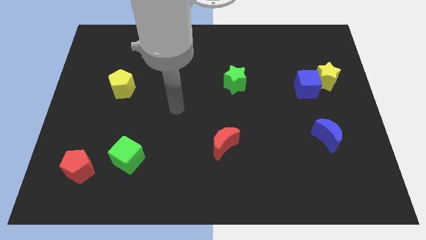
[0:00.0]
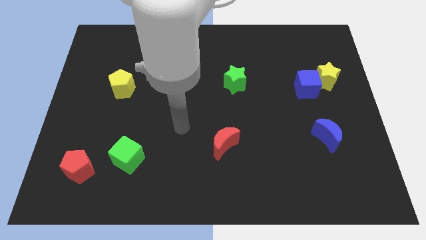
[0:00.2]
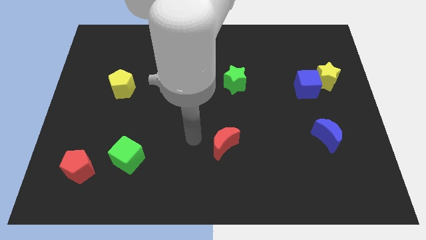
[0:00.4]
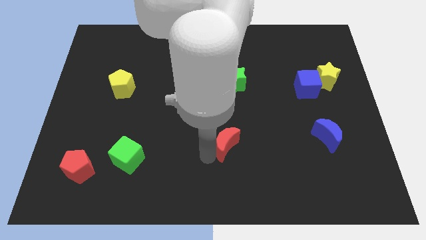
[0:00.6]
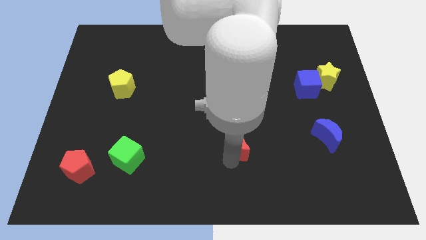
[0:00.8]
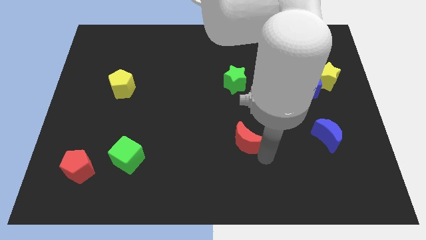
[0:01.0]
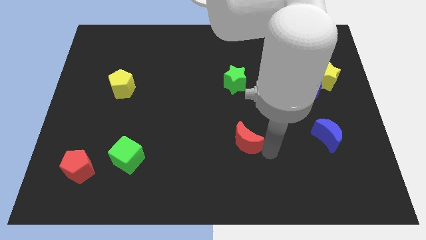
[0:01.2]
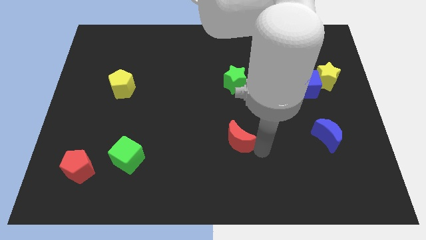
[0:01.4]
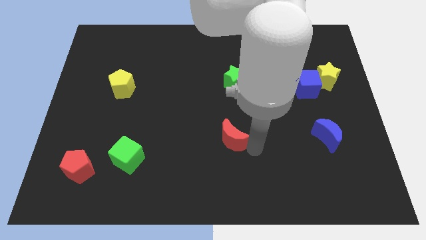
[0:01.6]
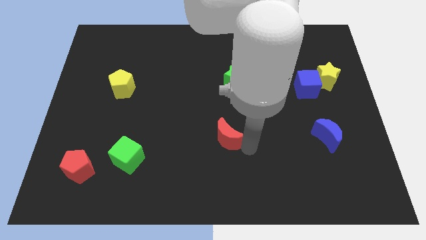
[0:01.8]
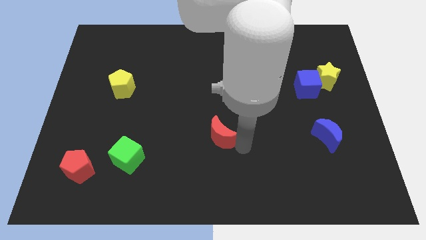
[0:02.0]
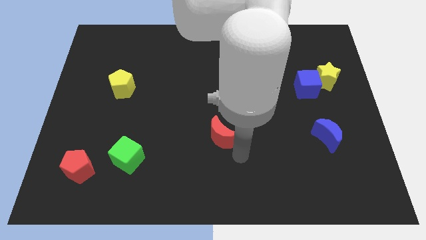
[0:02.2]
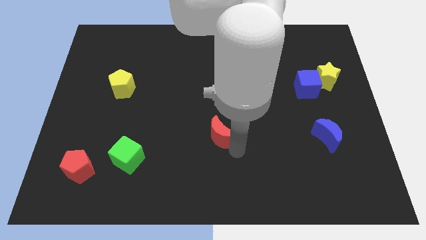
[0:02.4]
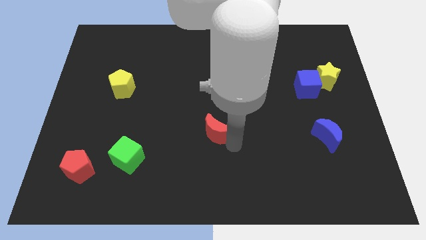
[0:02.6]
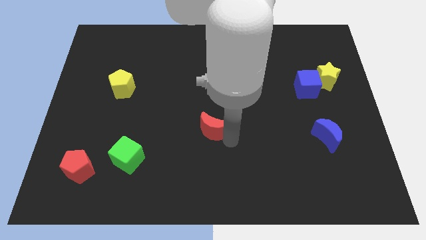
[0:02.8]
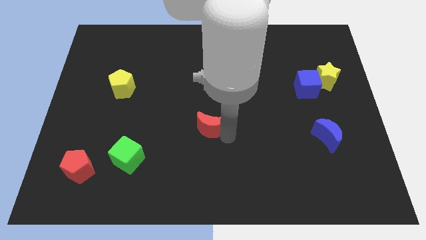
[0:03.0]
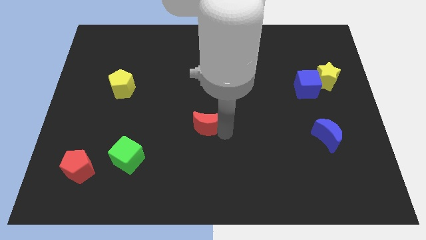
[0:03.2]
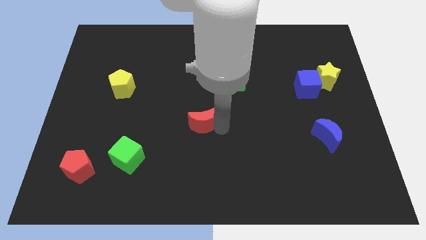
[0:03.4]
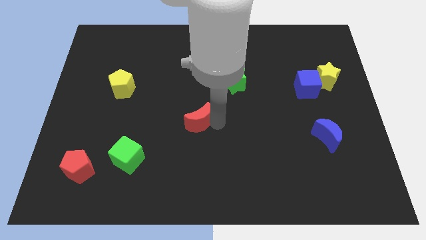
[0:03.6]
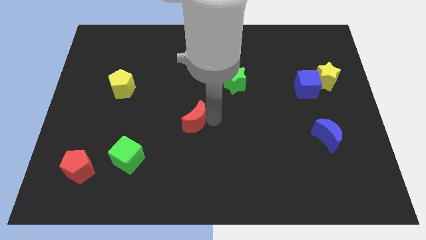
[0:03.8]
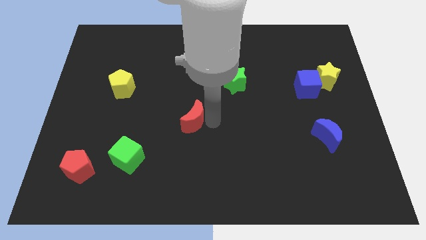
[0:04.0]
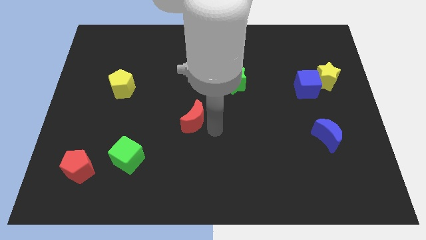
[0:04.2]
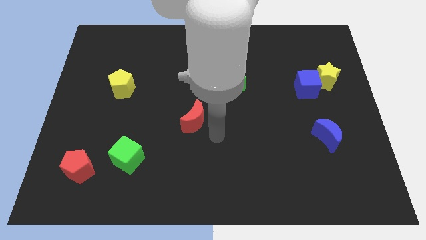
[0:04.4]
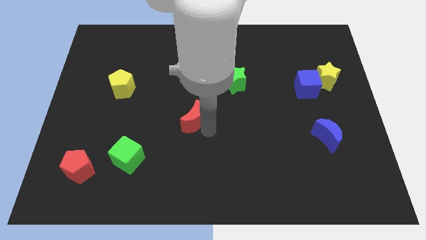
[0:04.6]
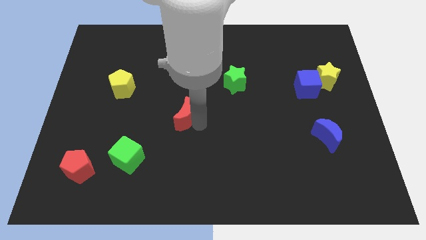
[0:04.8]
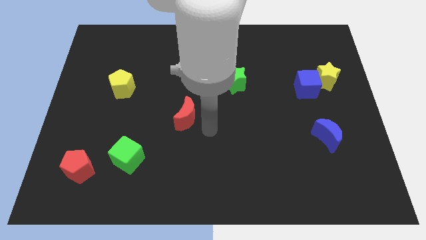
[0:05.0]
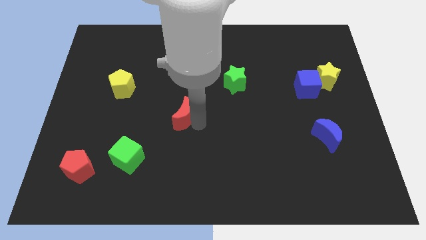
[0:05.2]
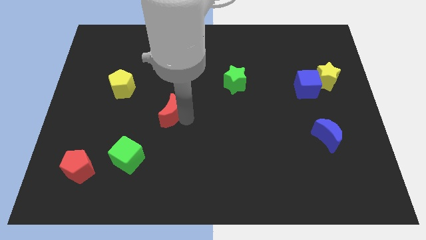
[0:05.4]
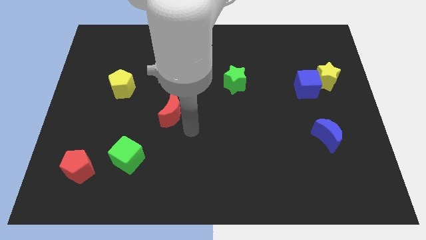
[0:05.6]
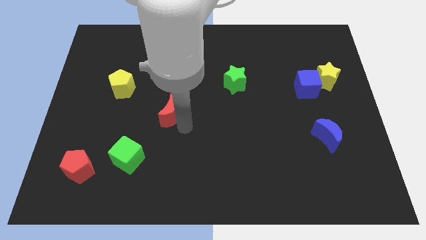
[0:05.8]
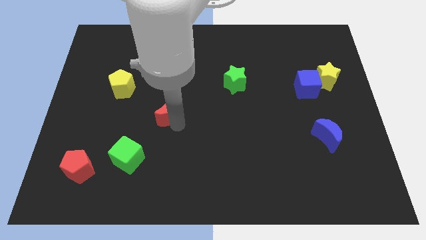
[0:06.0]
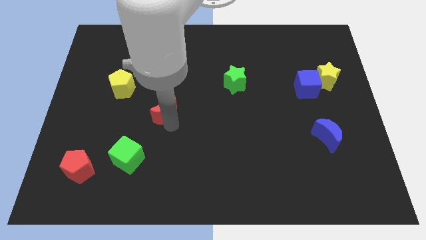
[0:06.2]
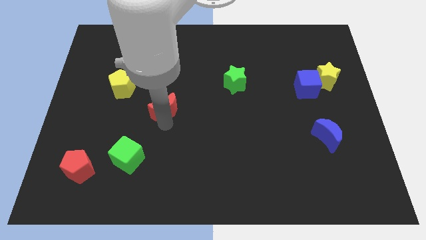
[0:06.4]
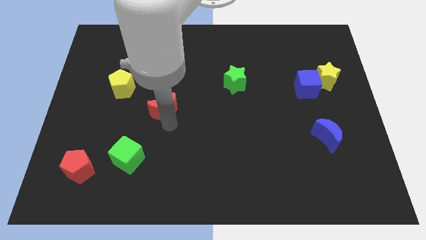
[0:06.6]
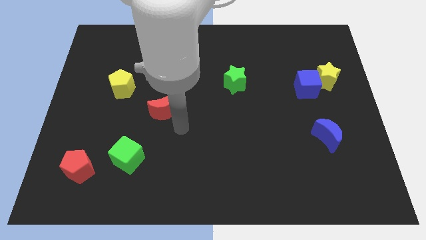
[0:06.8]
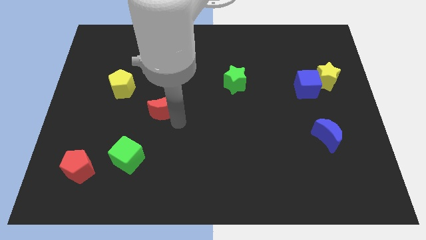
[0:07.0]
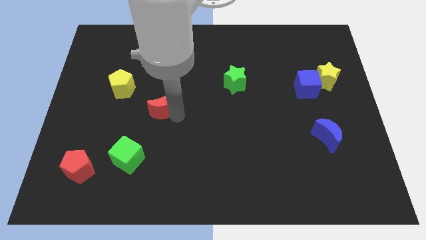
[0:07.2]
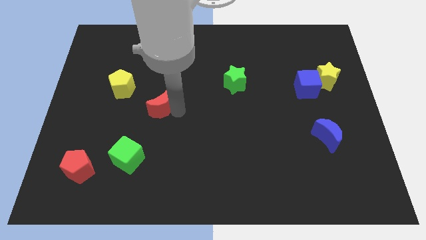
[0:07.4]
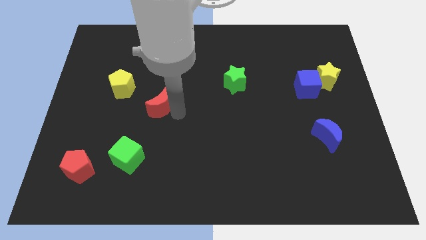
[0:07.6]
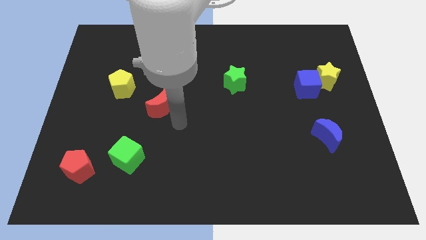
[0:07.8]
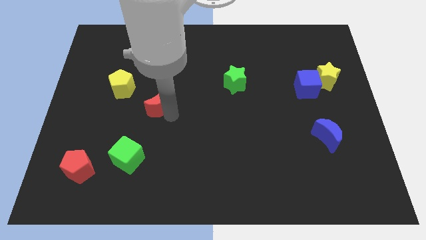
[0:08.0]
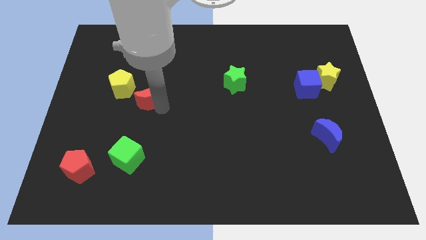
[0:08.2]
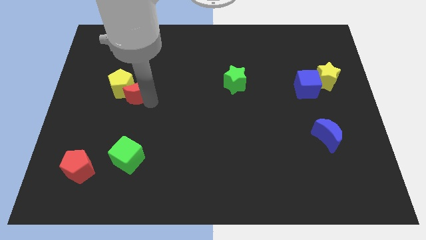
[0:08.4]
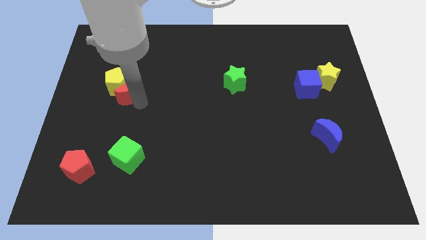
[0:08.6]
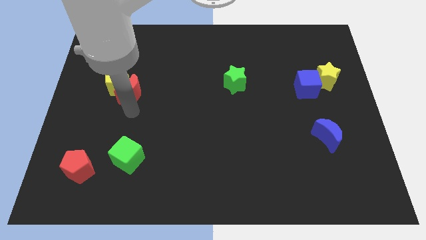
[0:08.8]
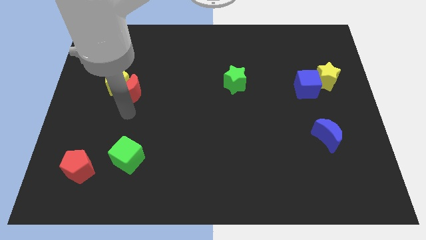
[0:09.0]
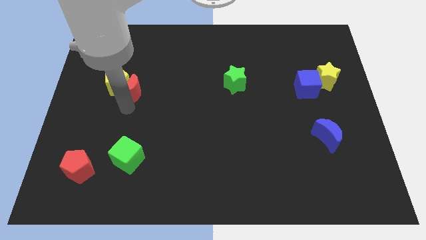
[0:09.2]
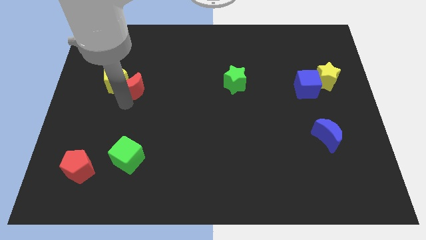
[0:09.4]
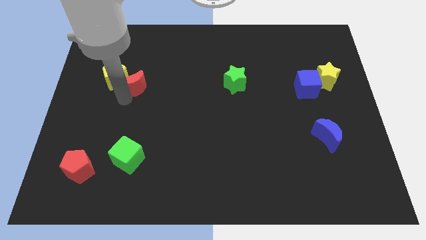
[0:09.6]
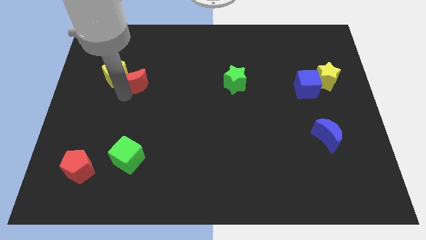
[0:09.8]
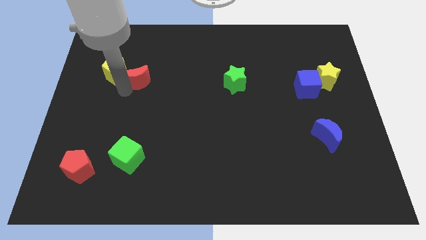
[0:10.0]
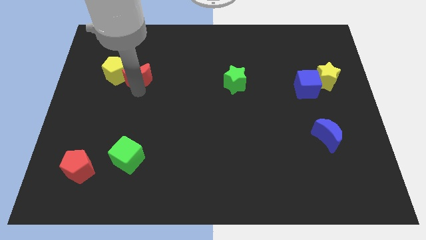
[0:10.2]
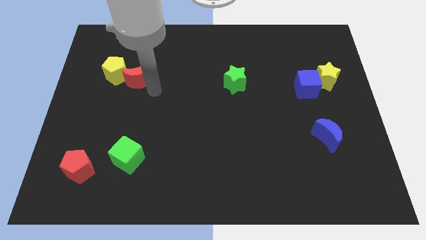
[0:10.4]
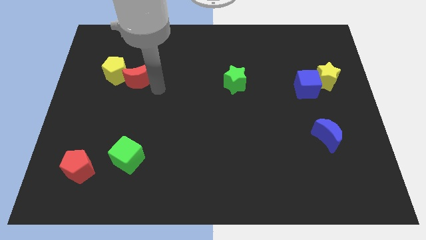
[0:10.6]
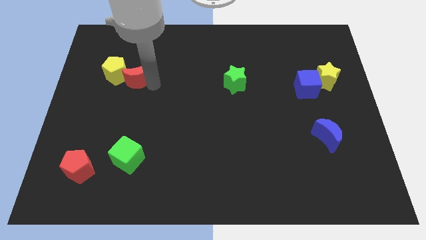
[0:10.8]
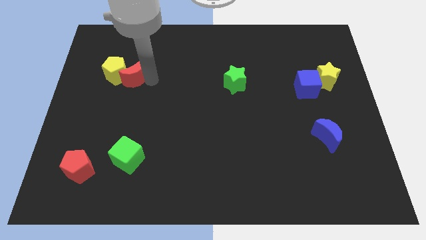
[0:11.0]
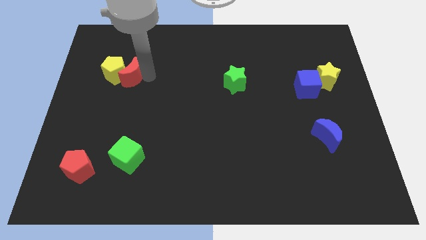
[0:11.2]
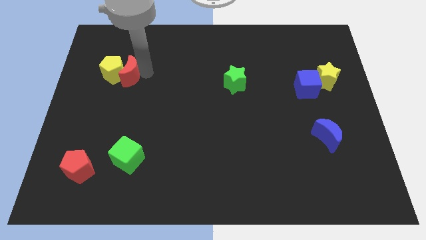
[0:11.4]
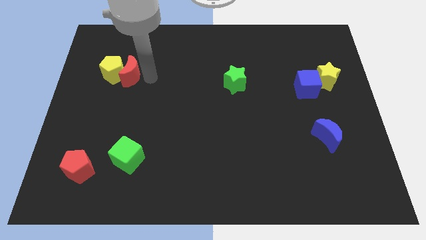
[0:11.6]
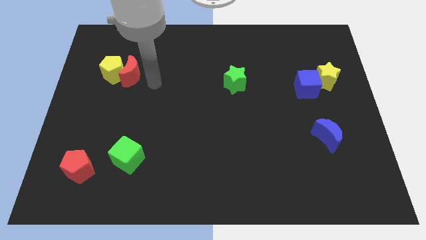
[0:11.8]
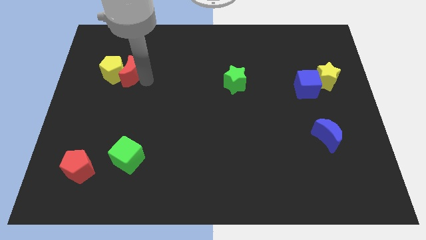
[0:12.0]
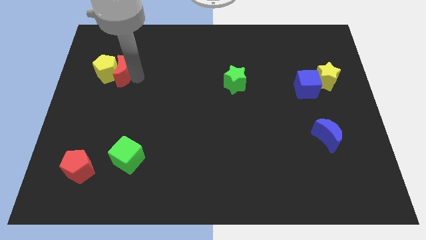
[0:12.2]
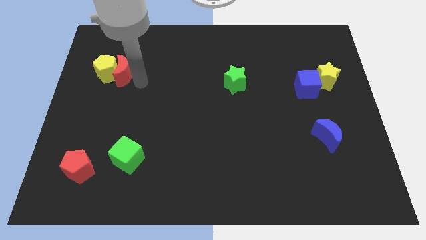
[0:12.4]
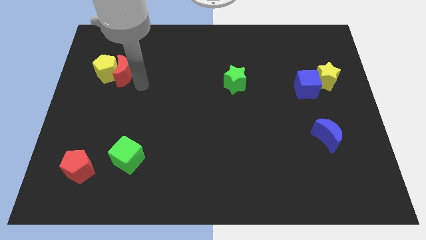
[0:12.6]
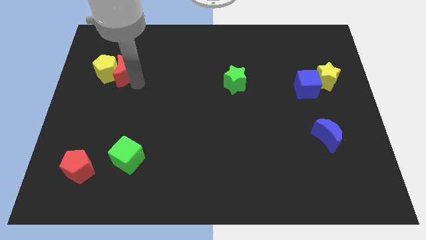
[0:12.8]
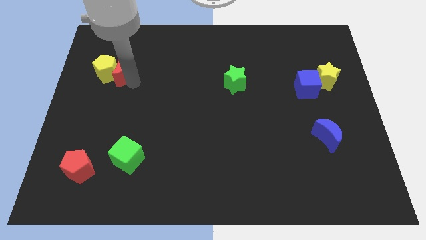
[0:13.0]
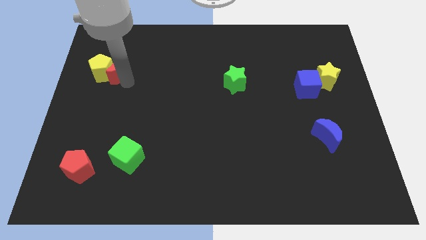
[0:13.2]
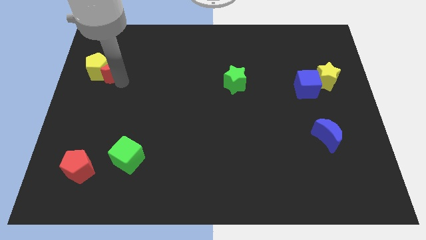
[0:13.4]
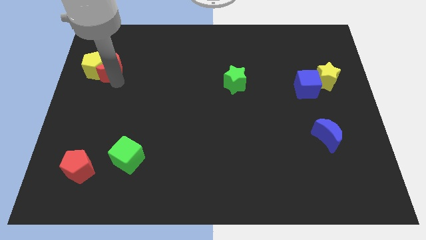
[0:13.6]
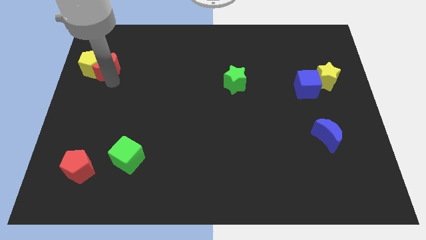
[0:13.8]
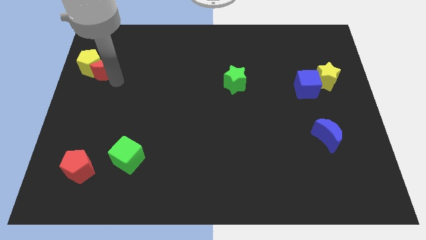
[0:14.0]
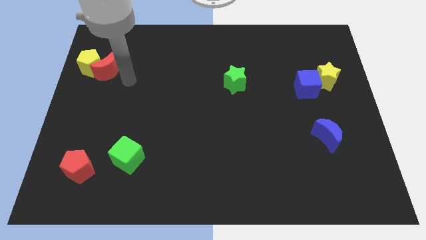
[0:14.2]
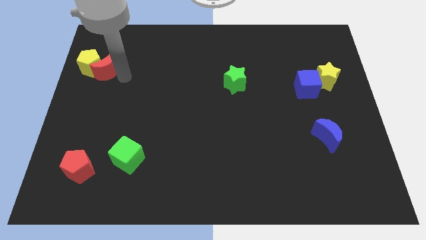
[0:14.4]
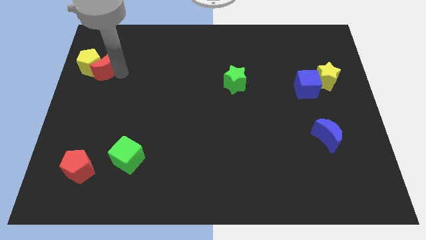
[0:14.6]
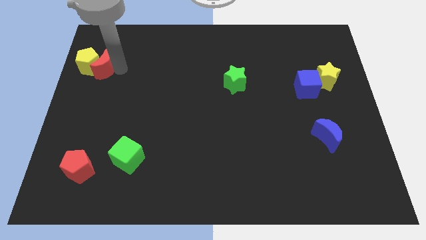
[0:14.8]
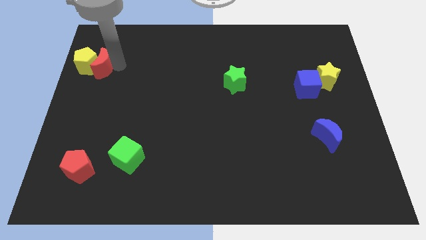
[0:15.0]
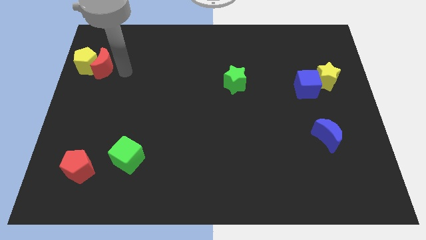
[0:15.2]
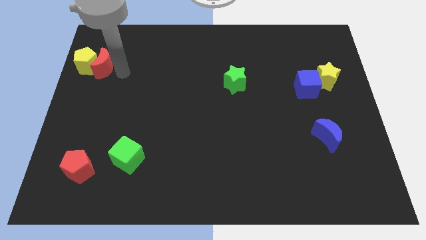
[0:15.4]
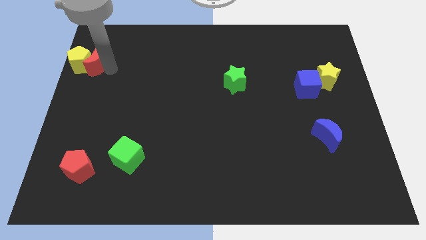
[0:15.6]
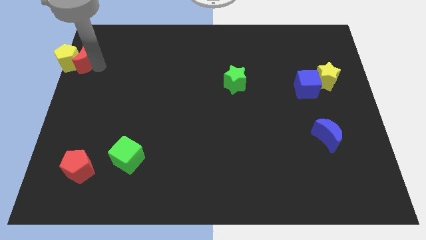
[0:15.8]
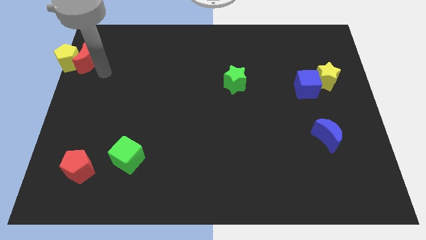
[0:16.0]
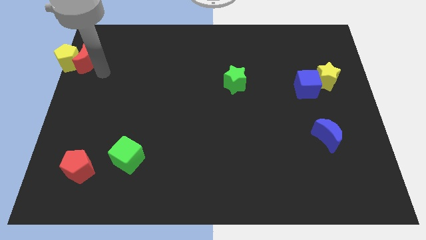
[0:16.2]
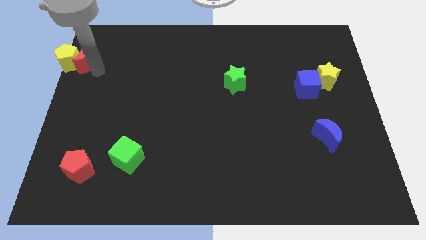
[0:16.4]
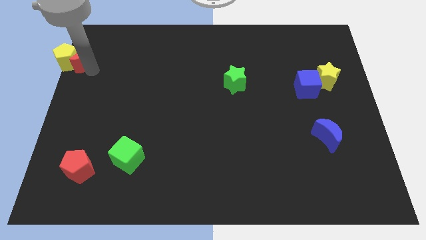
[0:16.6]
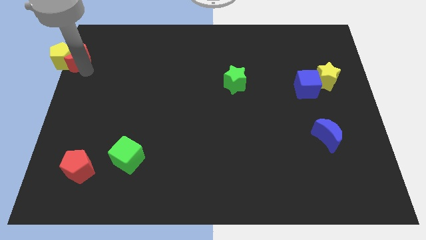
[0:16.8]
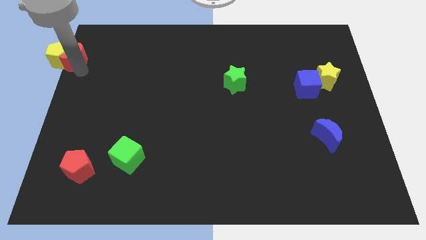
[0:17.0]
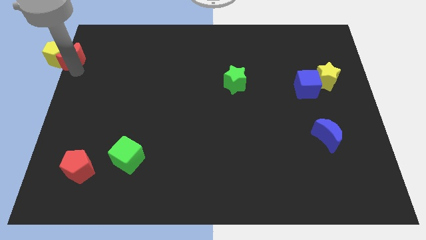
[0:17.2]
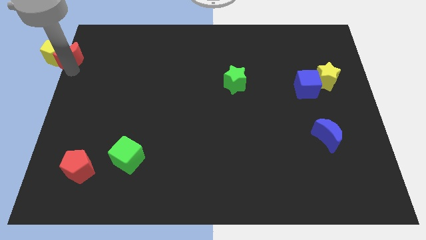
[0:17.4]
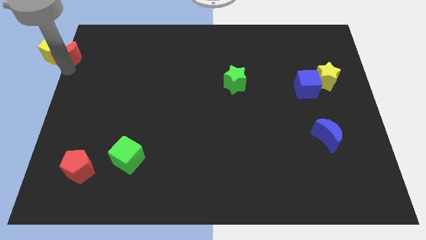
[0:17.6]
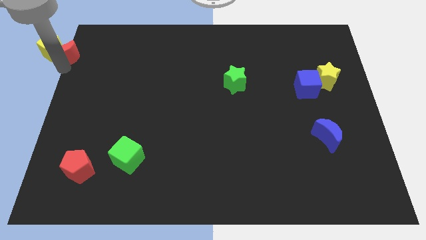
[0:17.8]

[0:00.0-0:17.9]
slide the red moon to the top left of the board
